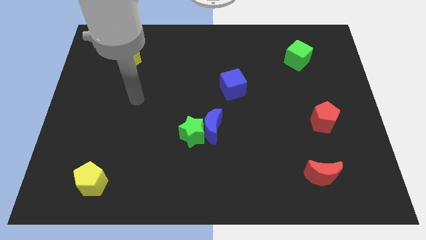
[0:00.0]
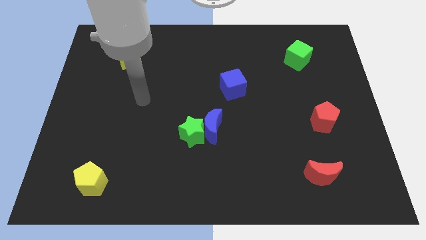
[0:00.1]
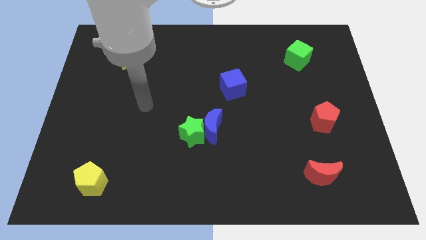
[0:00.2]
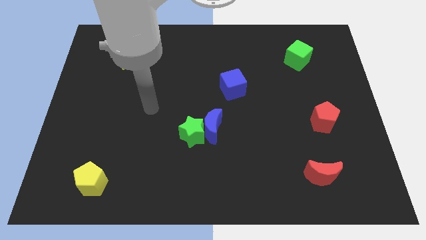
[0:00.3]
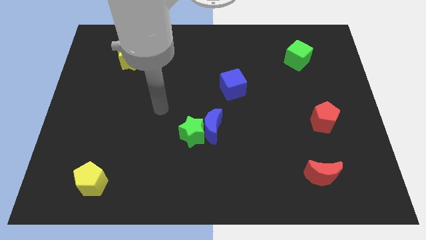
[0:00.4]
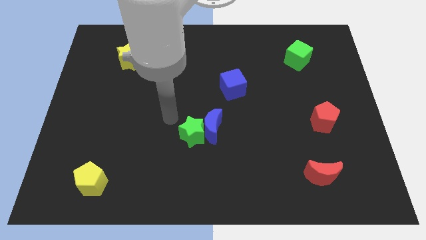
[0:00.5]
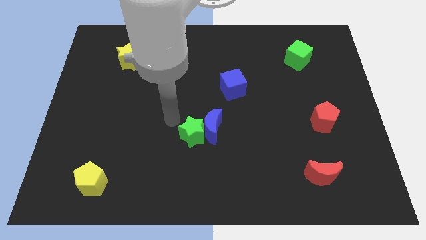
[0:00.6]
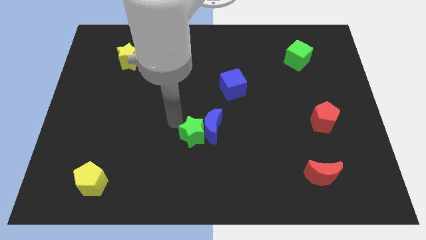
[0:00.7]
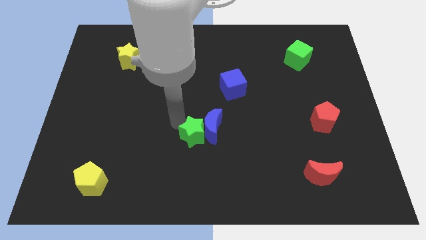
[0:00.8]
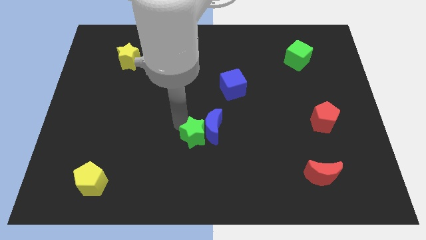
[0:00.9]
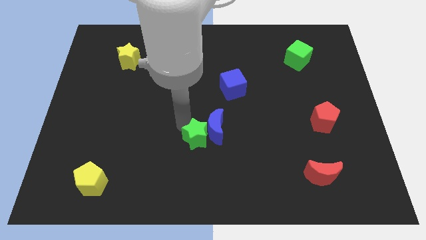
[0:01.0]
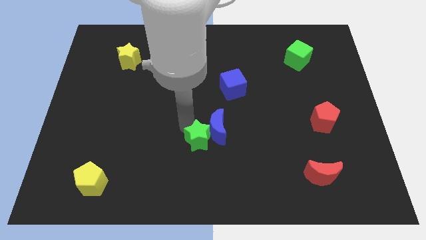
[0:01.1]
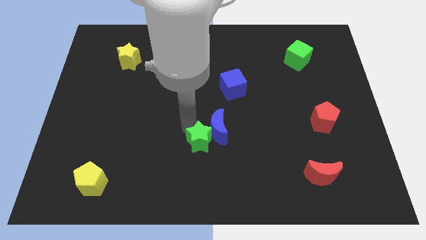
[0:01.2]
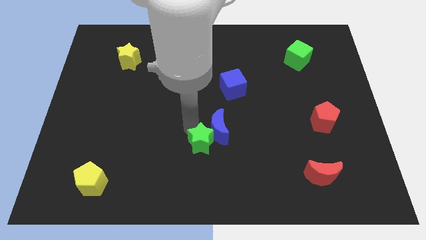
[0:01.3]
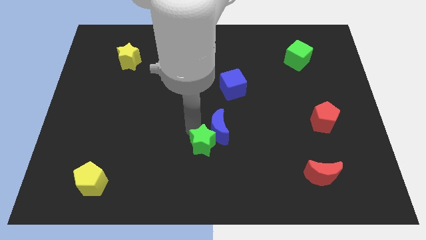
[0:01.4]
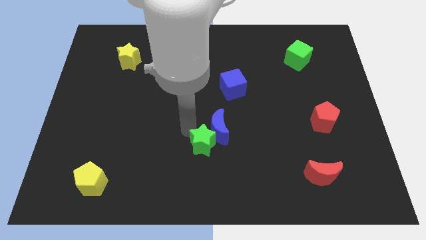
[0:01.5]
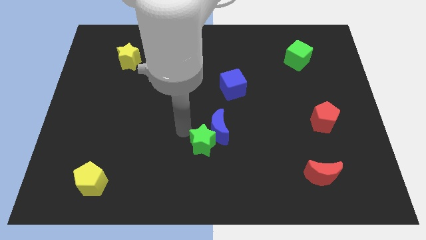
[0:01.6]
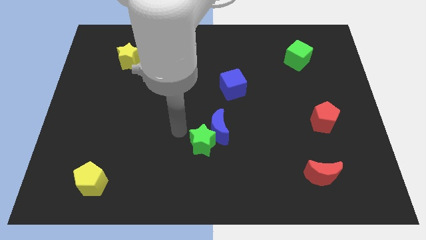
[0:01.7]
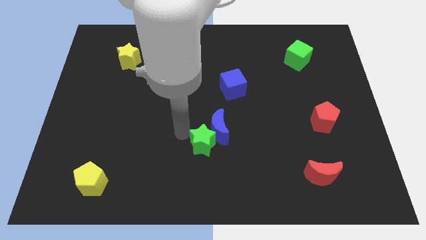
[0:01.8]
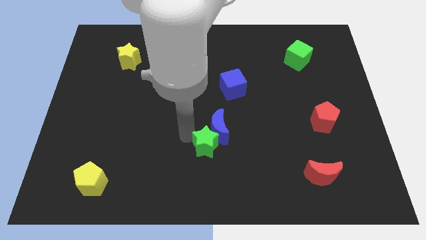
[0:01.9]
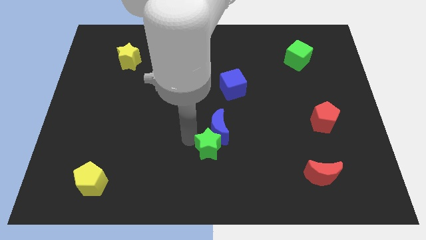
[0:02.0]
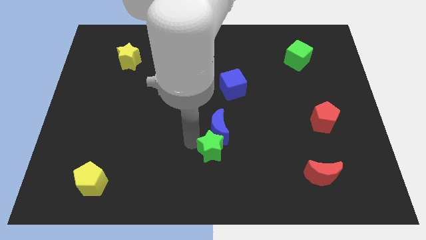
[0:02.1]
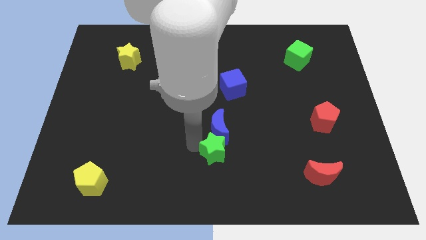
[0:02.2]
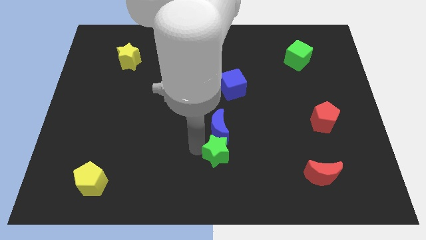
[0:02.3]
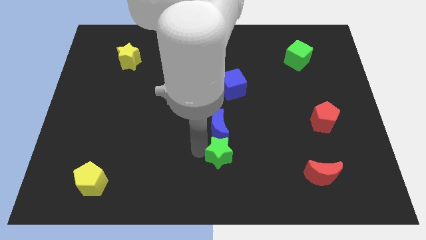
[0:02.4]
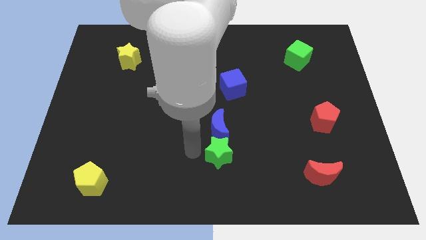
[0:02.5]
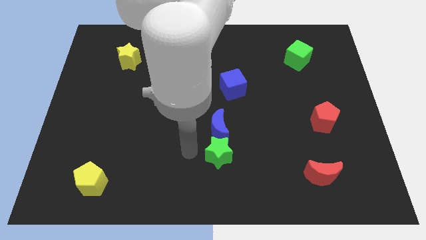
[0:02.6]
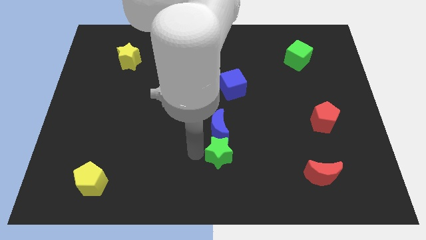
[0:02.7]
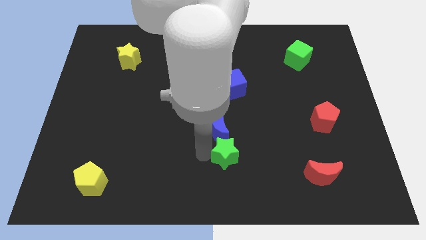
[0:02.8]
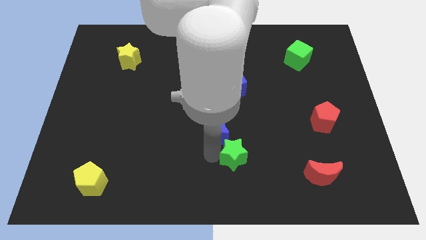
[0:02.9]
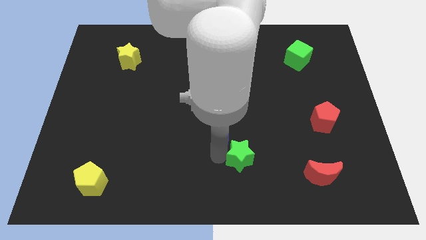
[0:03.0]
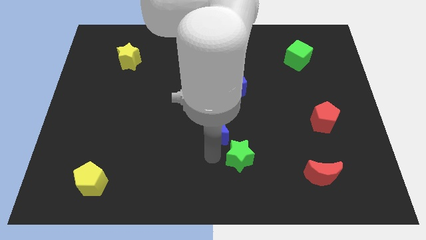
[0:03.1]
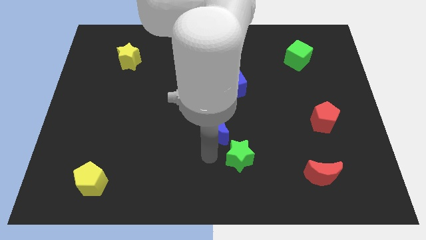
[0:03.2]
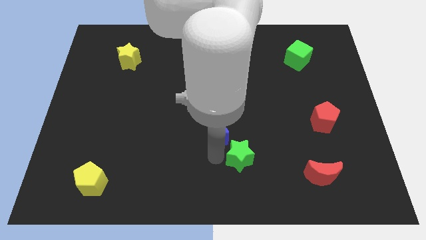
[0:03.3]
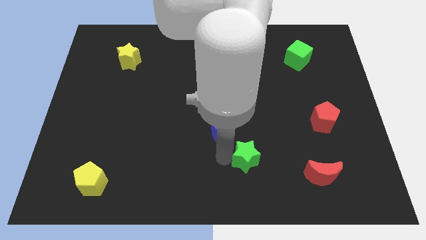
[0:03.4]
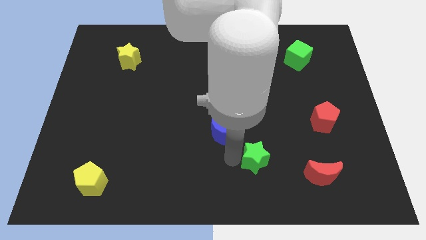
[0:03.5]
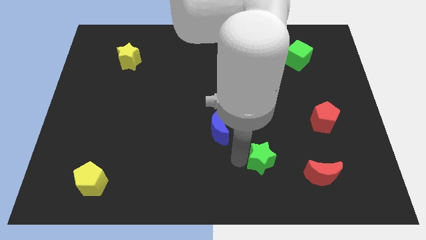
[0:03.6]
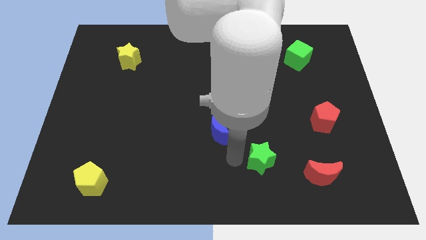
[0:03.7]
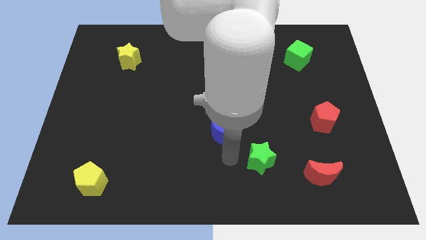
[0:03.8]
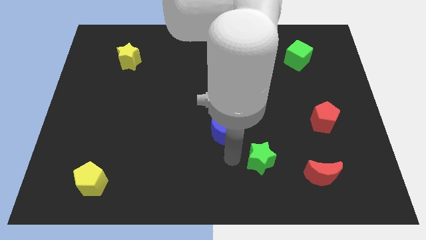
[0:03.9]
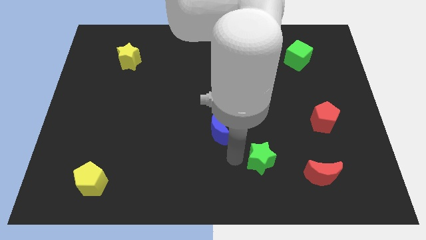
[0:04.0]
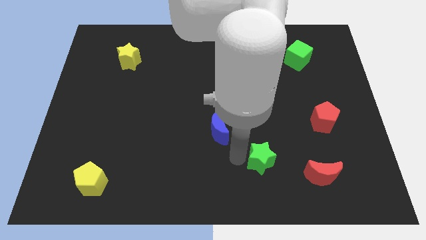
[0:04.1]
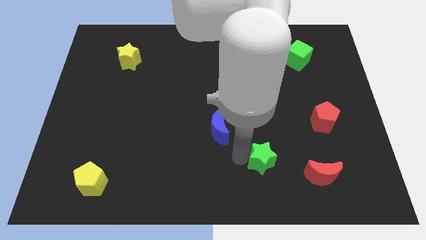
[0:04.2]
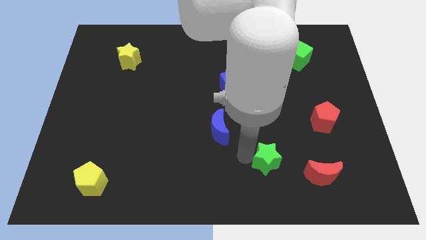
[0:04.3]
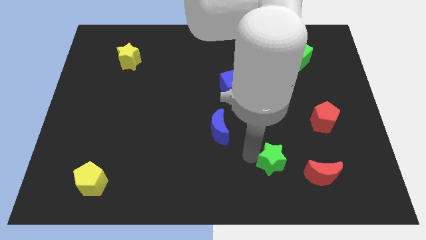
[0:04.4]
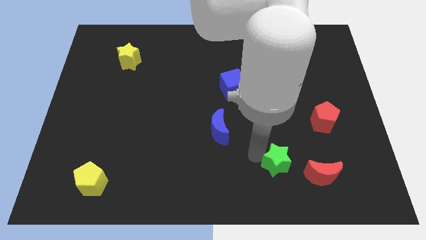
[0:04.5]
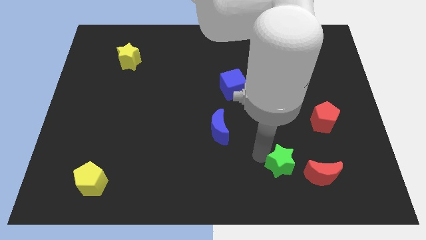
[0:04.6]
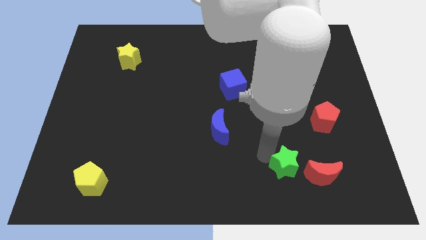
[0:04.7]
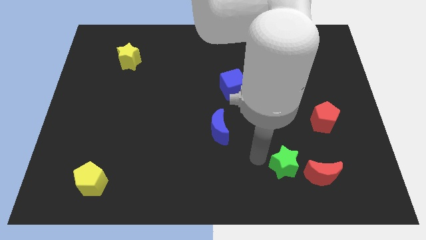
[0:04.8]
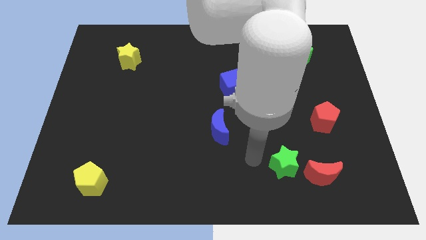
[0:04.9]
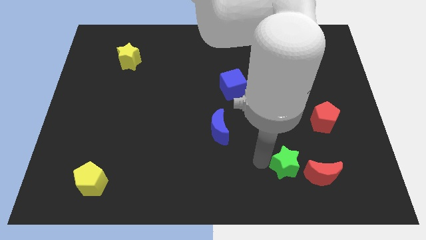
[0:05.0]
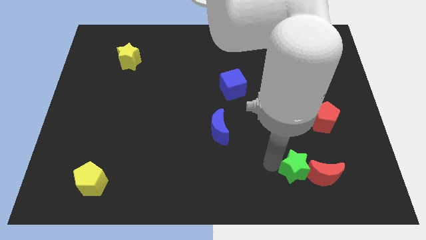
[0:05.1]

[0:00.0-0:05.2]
push the green star towards the red moon
